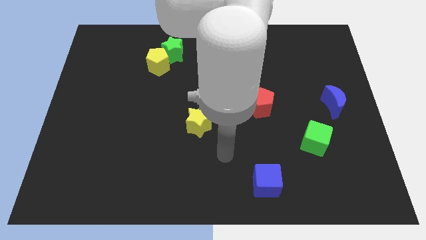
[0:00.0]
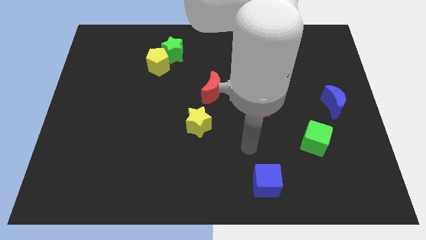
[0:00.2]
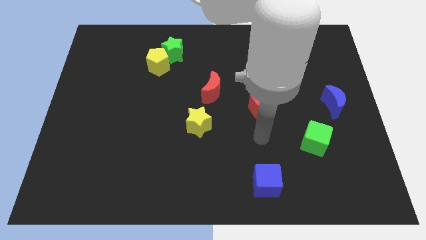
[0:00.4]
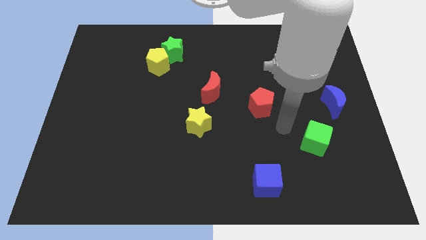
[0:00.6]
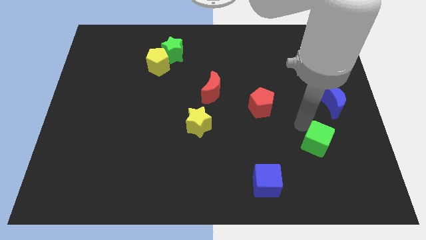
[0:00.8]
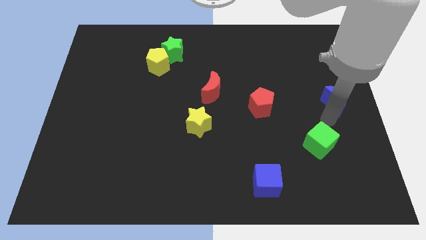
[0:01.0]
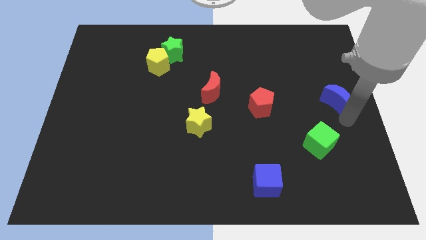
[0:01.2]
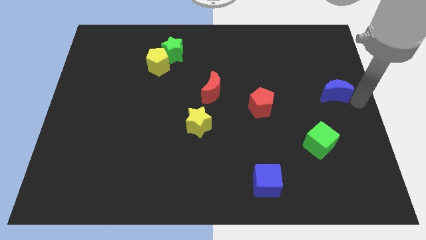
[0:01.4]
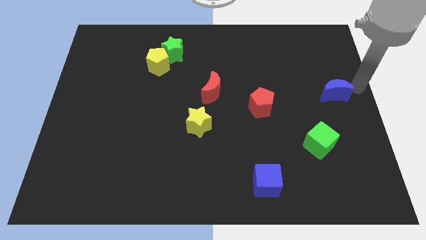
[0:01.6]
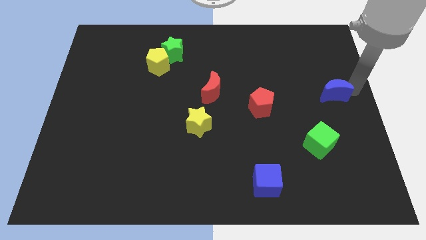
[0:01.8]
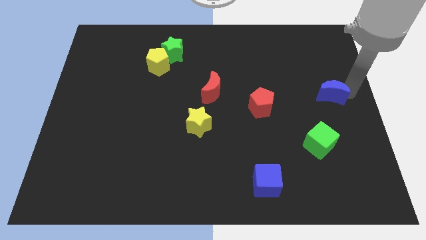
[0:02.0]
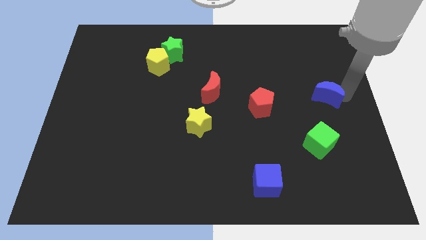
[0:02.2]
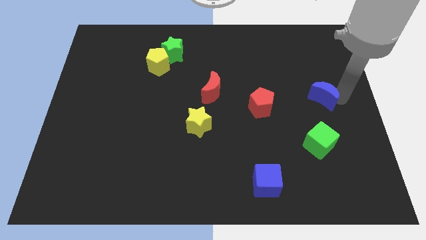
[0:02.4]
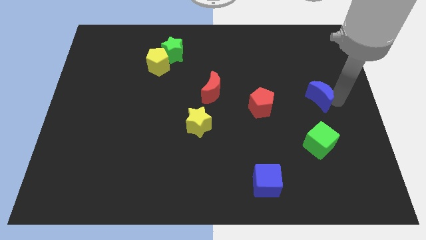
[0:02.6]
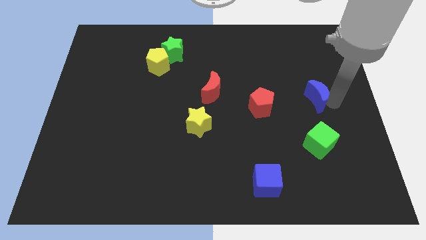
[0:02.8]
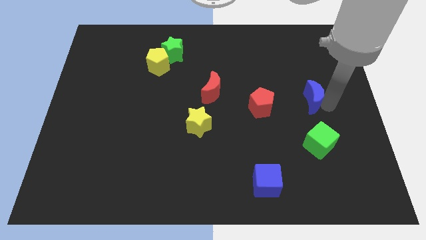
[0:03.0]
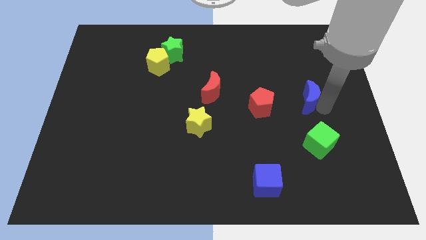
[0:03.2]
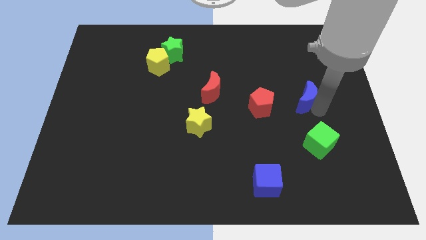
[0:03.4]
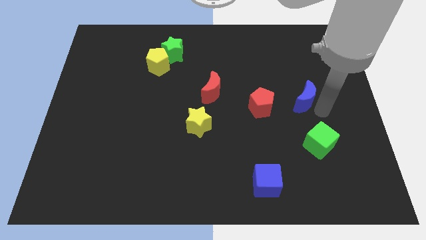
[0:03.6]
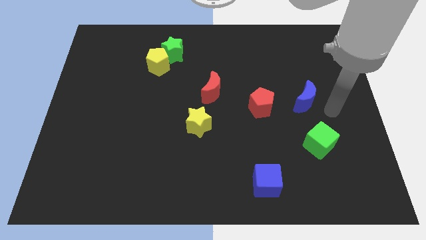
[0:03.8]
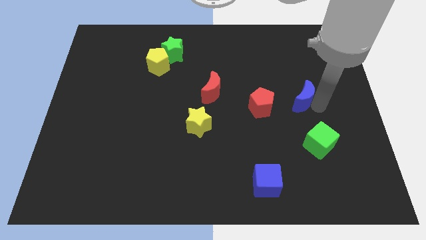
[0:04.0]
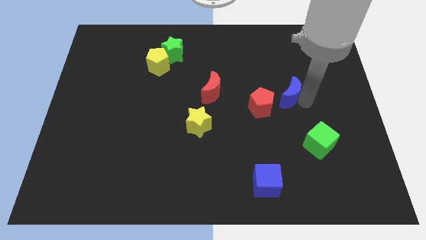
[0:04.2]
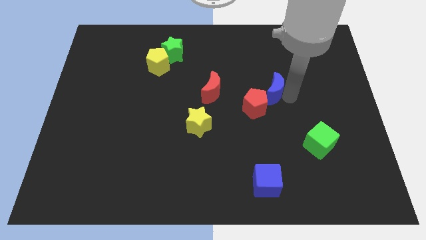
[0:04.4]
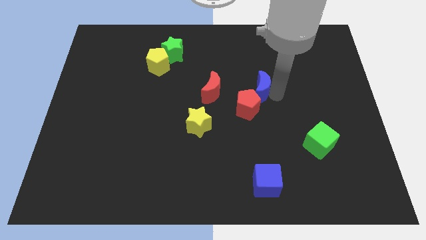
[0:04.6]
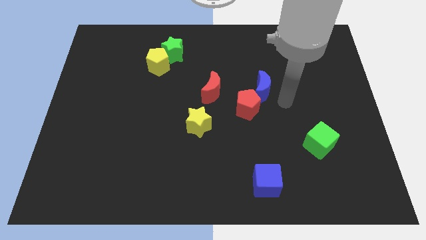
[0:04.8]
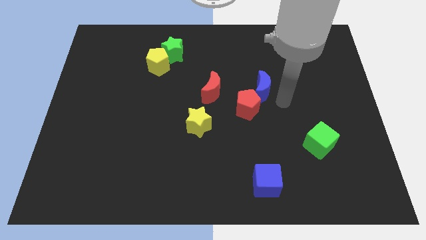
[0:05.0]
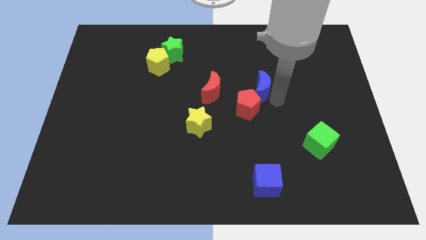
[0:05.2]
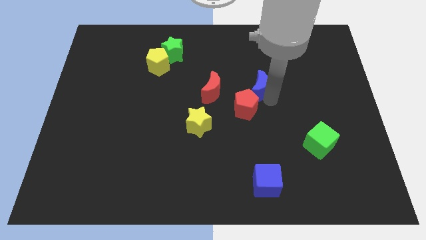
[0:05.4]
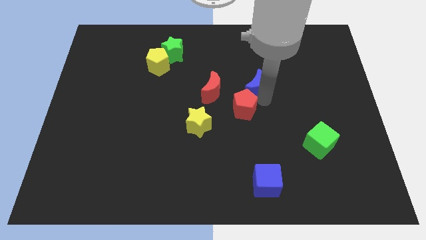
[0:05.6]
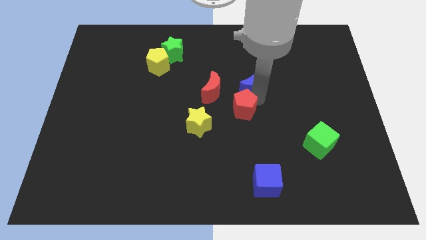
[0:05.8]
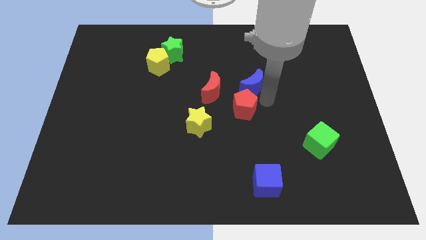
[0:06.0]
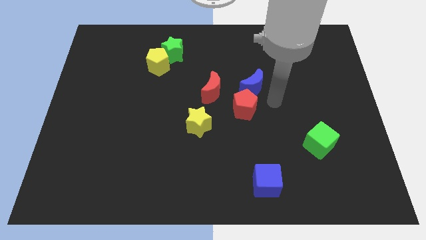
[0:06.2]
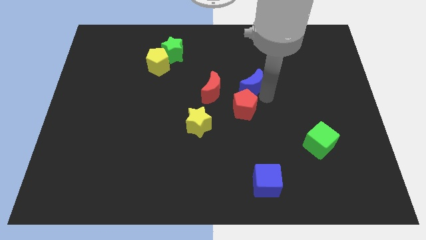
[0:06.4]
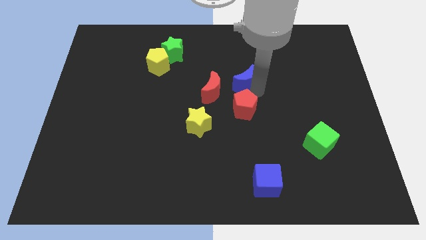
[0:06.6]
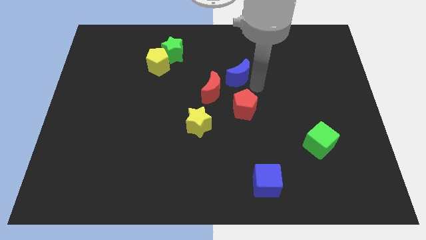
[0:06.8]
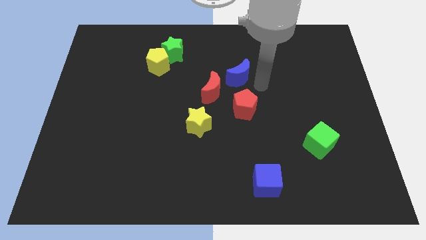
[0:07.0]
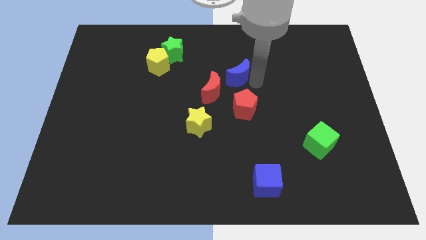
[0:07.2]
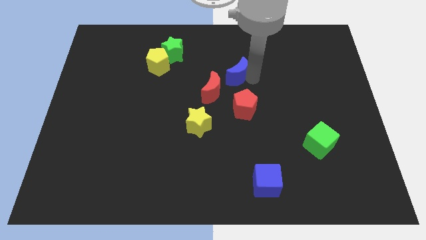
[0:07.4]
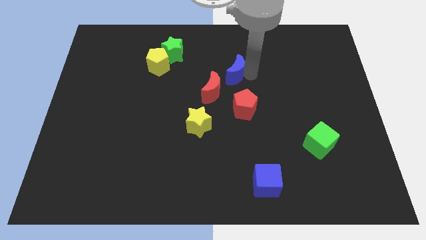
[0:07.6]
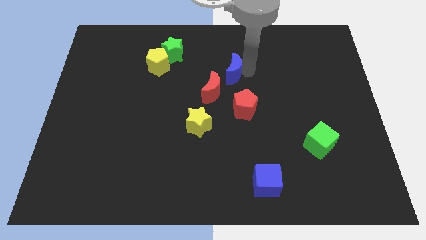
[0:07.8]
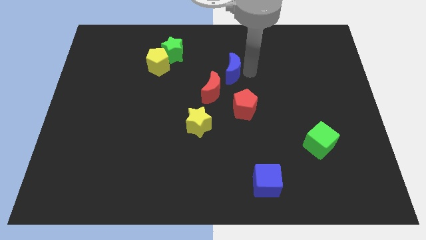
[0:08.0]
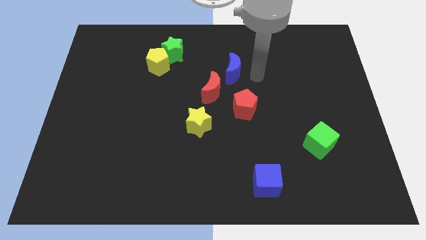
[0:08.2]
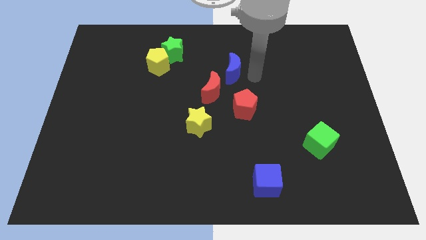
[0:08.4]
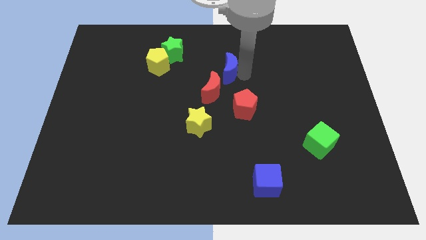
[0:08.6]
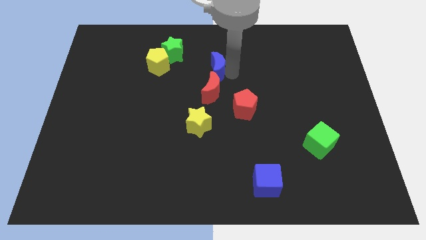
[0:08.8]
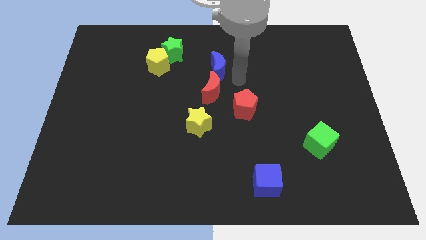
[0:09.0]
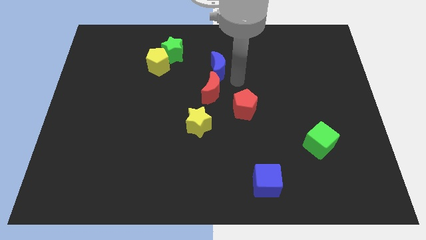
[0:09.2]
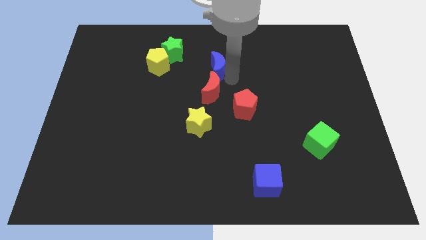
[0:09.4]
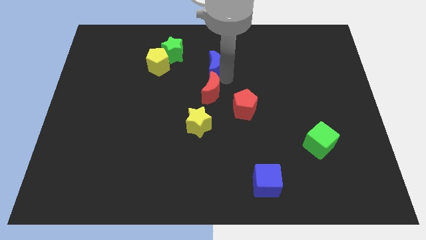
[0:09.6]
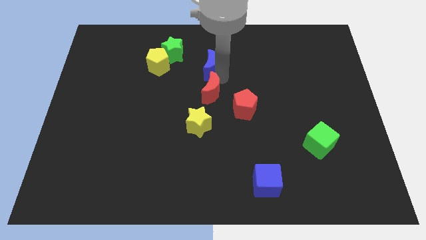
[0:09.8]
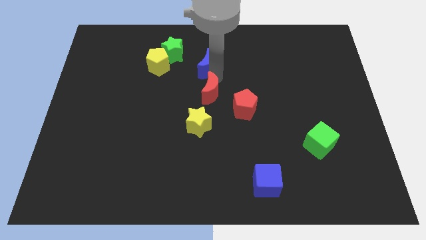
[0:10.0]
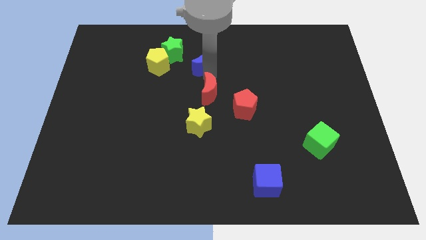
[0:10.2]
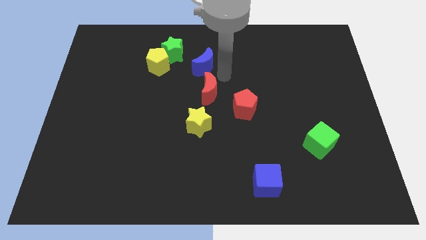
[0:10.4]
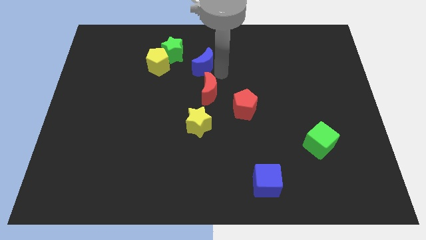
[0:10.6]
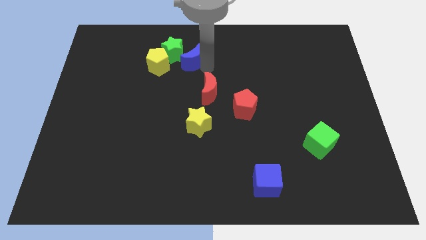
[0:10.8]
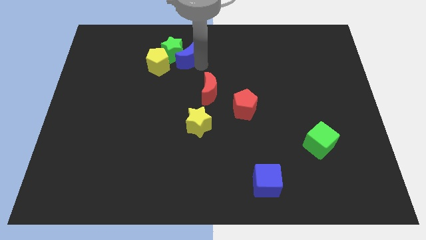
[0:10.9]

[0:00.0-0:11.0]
move the blue moon to the green star

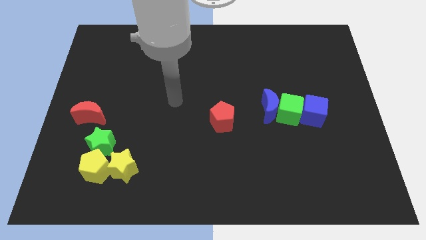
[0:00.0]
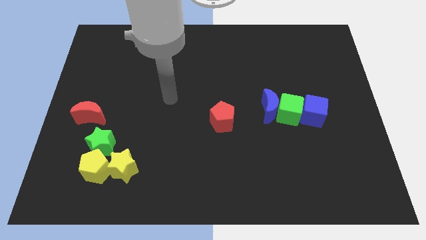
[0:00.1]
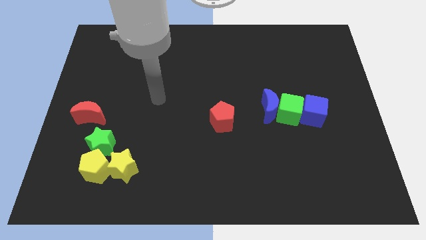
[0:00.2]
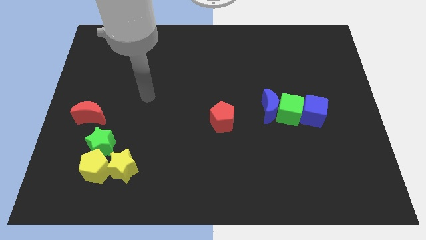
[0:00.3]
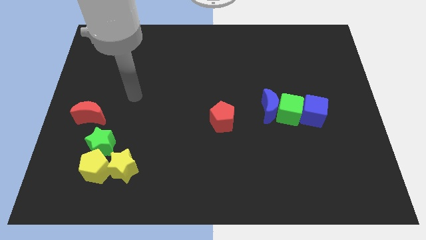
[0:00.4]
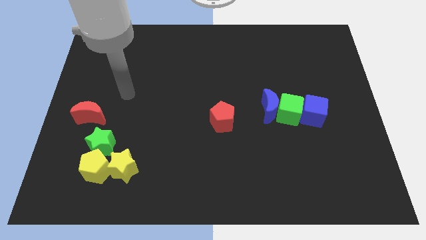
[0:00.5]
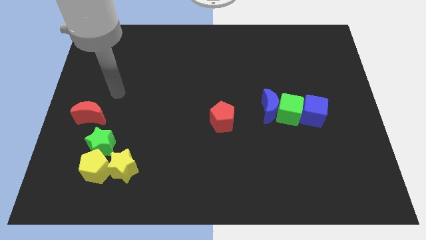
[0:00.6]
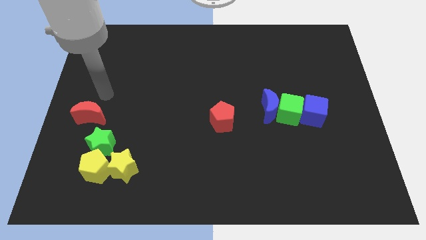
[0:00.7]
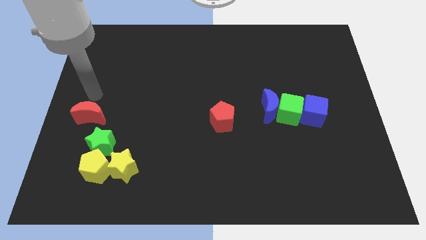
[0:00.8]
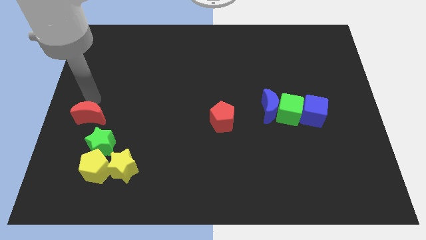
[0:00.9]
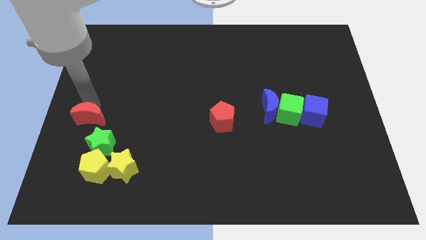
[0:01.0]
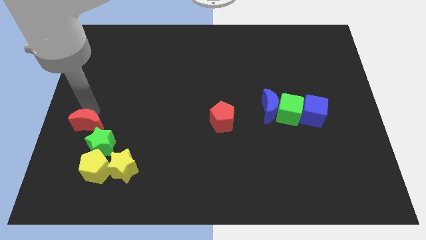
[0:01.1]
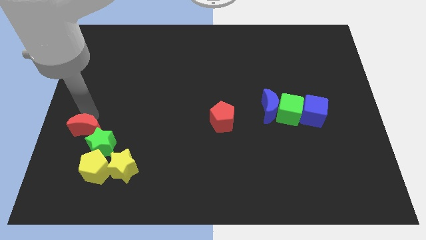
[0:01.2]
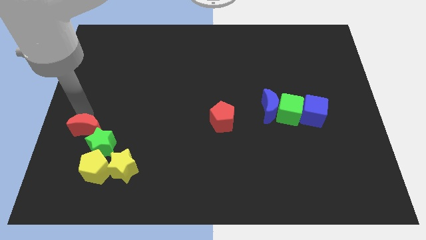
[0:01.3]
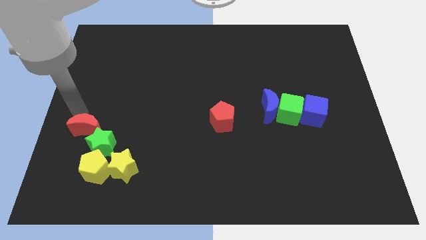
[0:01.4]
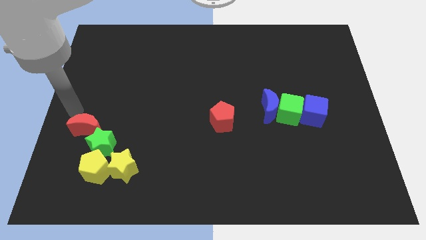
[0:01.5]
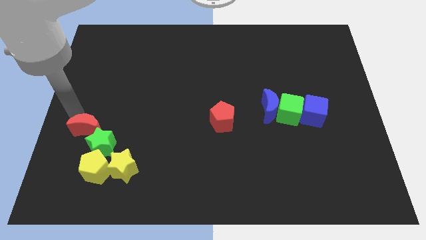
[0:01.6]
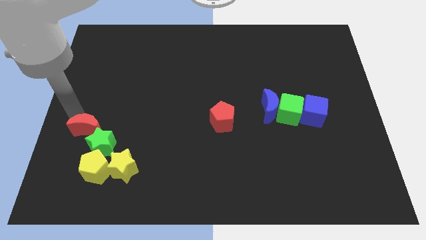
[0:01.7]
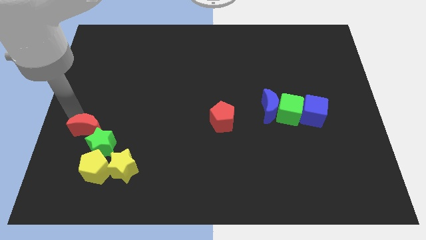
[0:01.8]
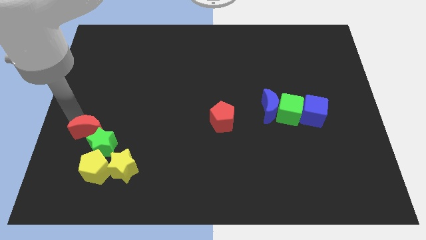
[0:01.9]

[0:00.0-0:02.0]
push the red moon towards the green star

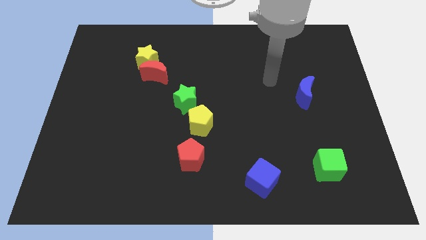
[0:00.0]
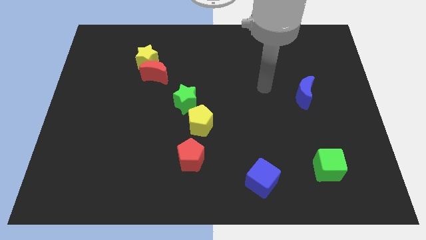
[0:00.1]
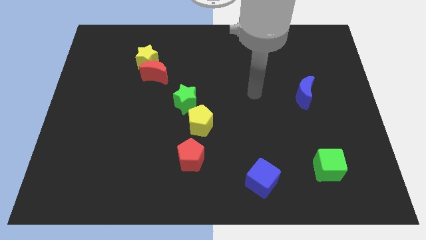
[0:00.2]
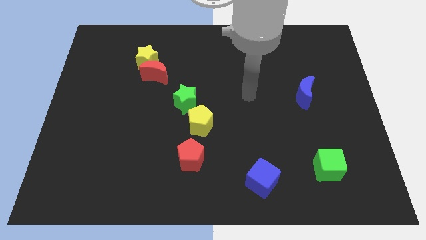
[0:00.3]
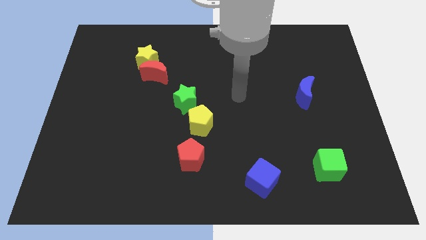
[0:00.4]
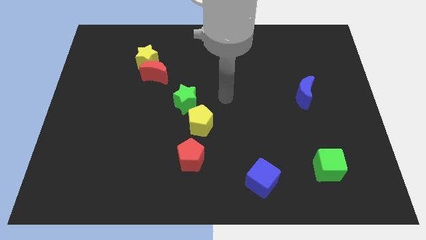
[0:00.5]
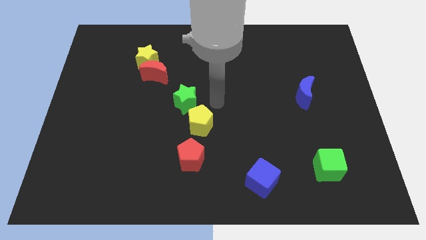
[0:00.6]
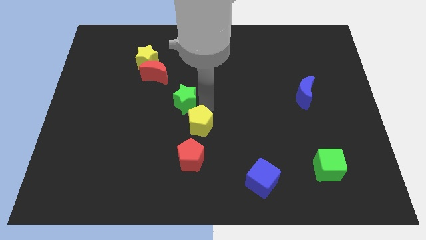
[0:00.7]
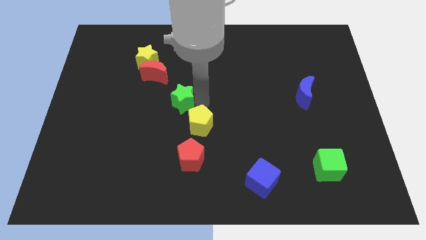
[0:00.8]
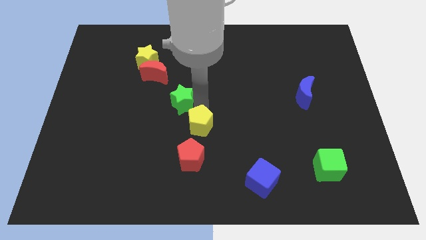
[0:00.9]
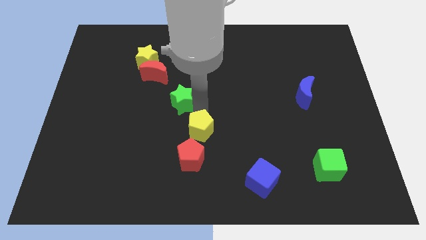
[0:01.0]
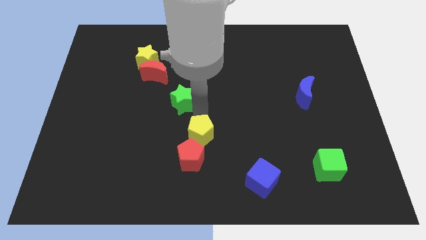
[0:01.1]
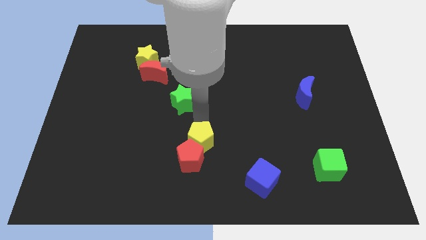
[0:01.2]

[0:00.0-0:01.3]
move the yellow pentagon close to the red pentagon
